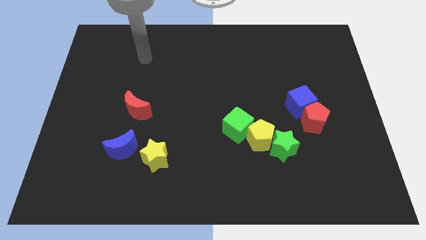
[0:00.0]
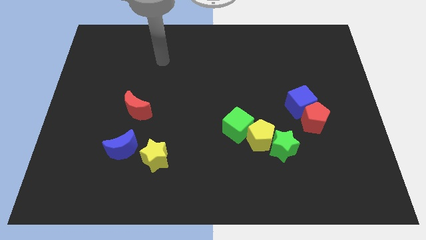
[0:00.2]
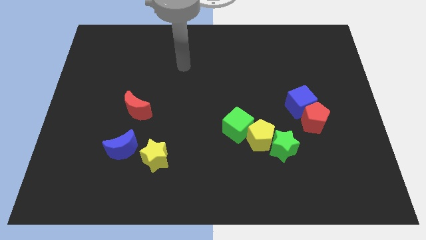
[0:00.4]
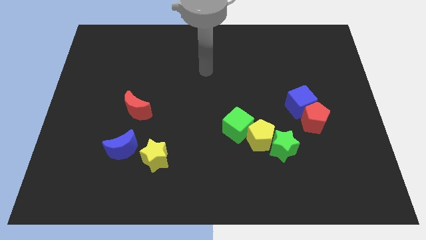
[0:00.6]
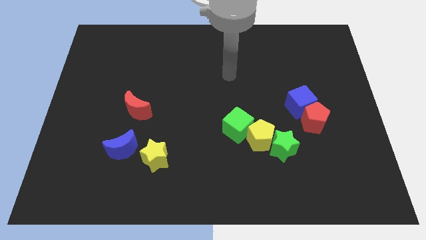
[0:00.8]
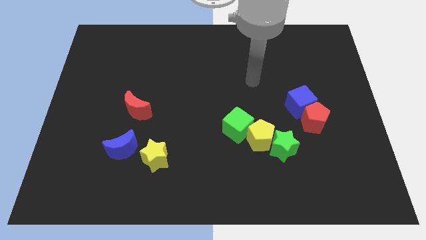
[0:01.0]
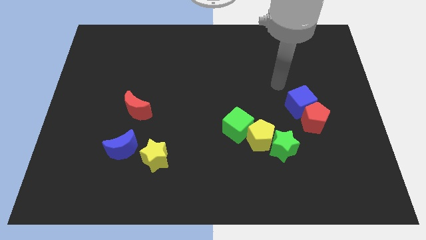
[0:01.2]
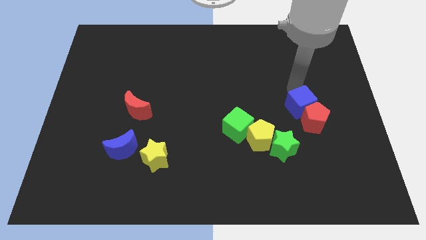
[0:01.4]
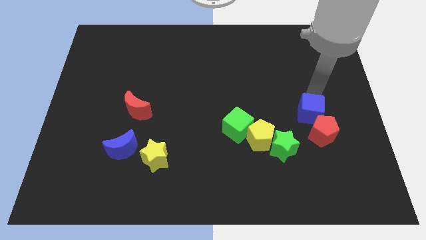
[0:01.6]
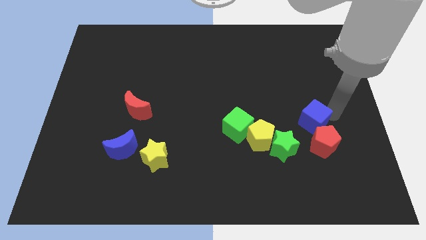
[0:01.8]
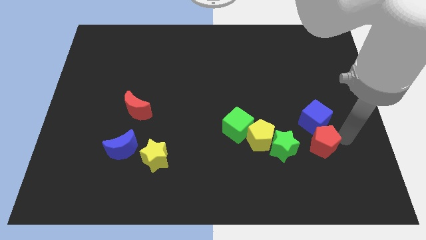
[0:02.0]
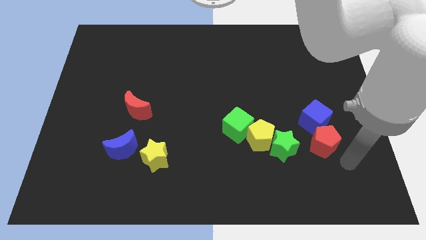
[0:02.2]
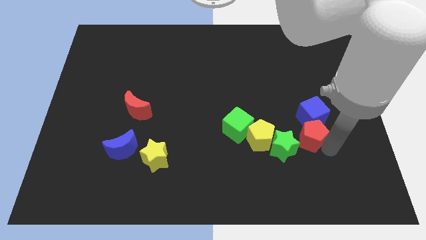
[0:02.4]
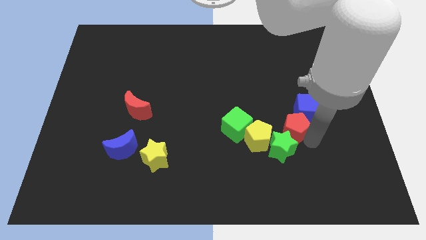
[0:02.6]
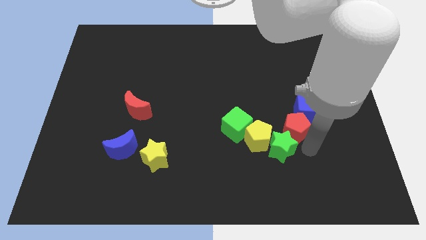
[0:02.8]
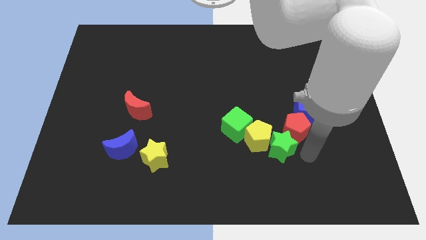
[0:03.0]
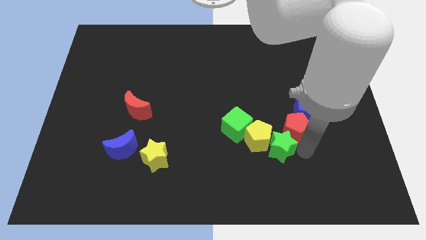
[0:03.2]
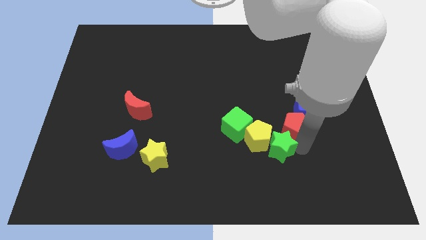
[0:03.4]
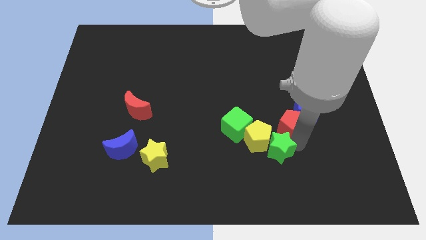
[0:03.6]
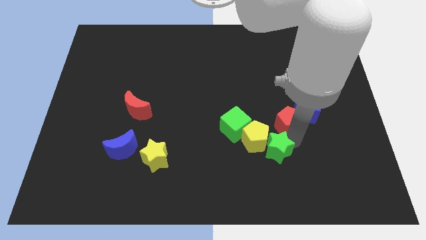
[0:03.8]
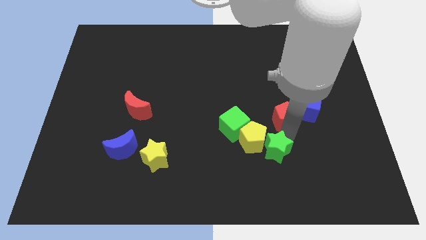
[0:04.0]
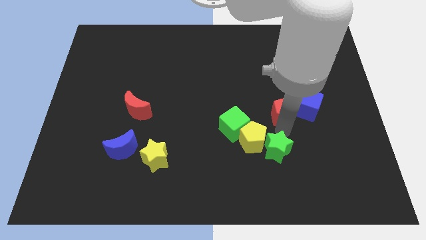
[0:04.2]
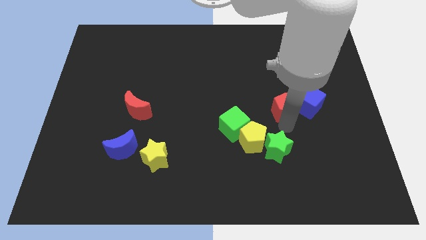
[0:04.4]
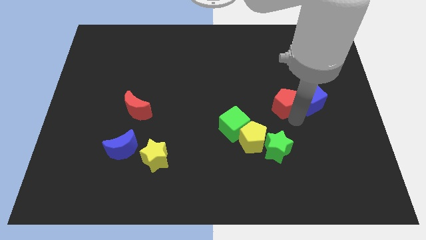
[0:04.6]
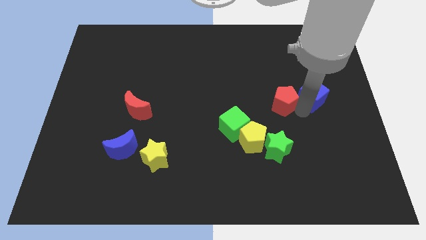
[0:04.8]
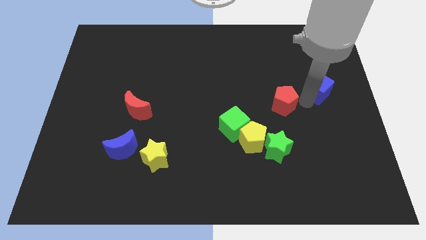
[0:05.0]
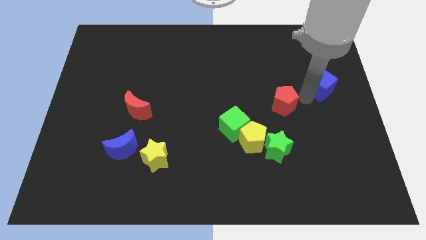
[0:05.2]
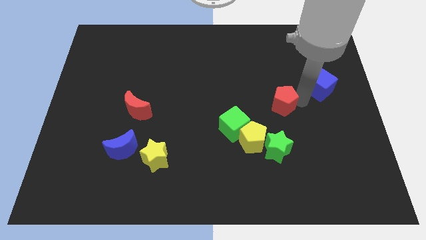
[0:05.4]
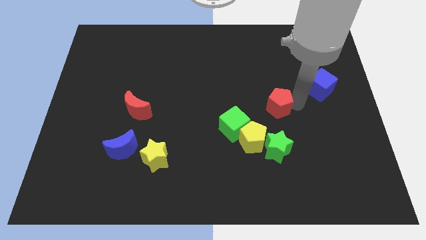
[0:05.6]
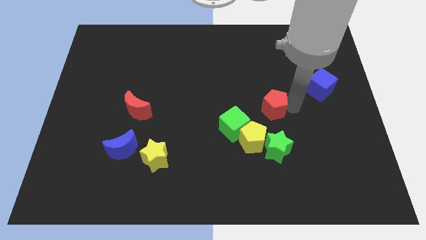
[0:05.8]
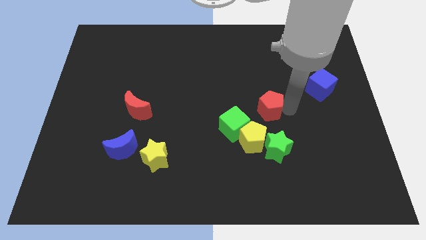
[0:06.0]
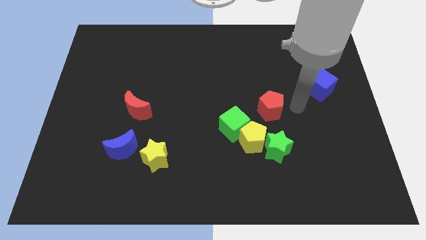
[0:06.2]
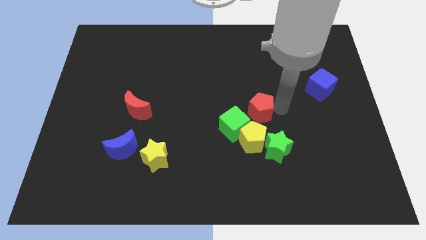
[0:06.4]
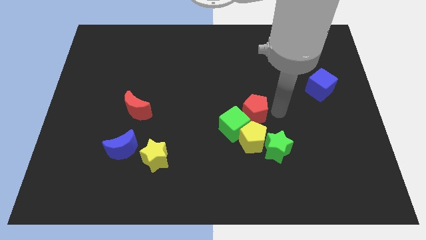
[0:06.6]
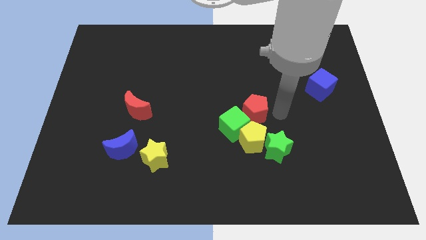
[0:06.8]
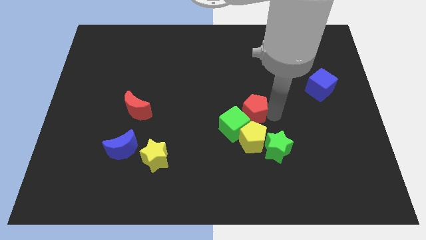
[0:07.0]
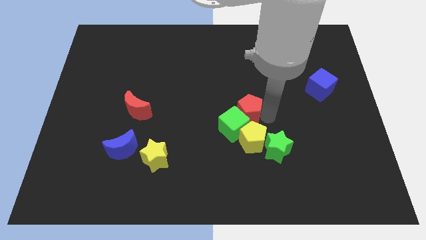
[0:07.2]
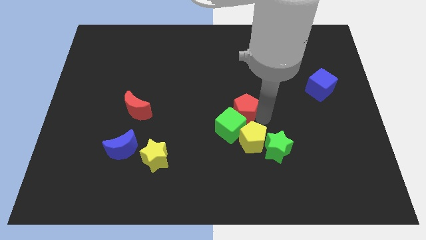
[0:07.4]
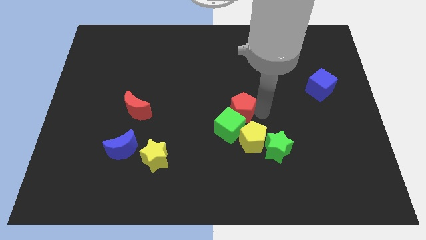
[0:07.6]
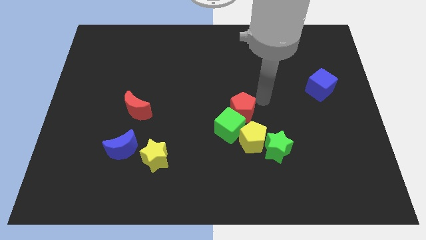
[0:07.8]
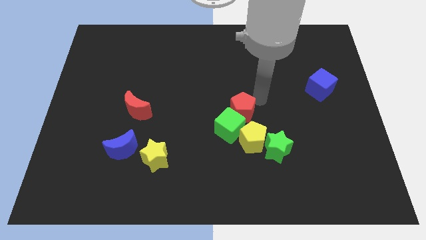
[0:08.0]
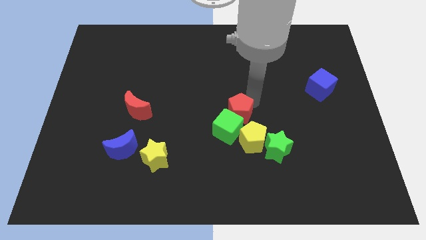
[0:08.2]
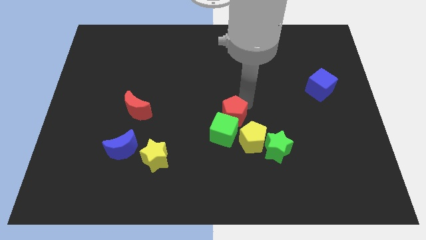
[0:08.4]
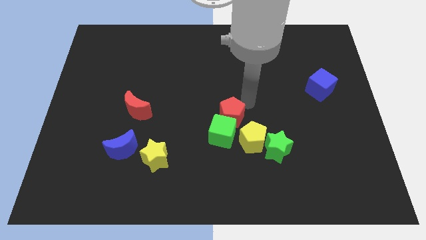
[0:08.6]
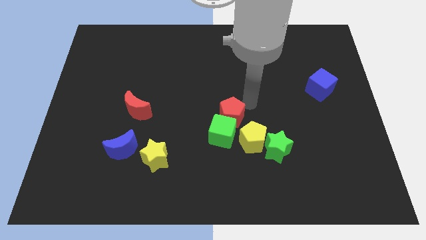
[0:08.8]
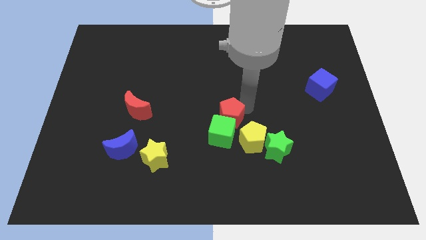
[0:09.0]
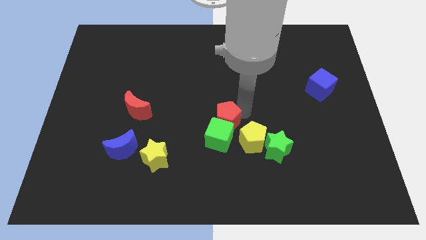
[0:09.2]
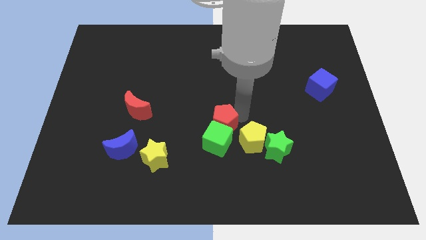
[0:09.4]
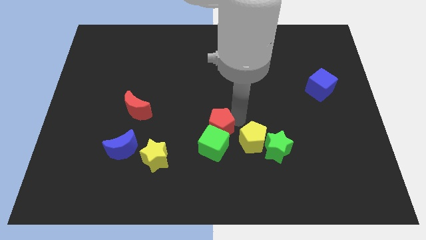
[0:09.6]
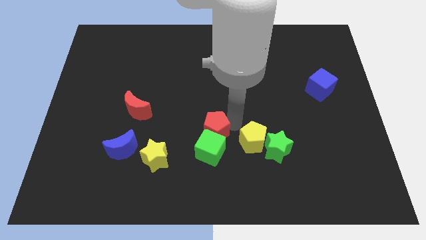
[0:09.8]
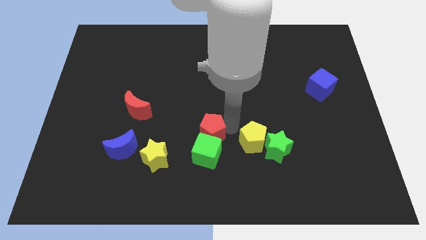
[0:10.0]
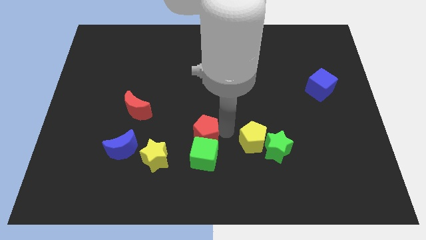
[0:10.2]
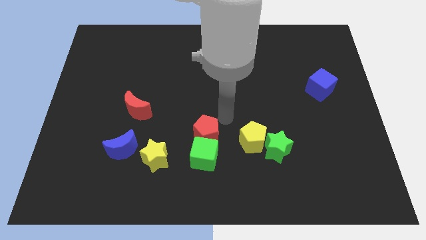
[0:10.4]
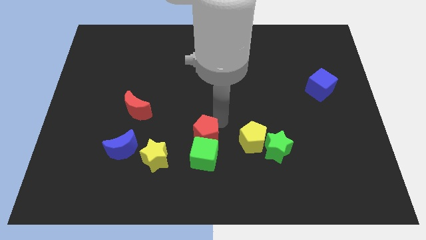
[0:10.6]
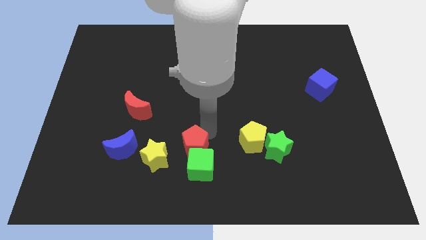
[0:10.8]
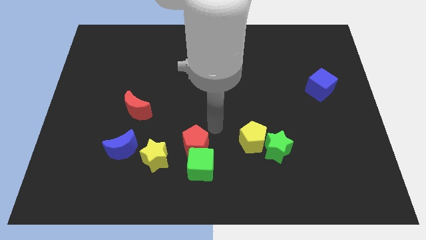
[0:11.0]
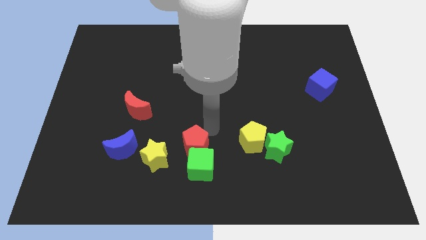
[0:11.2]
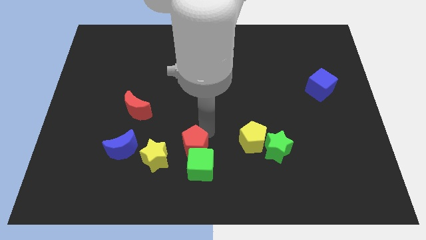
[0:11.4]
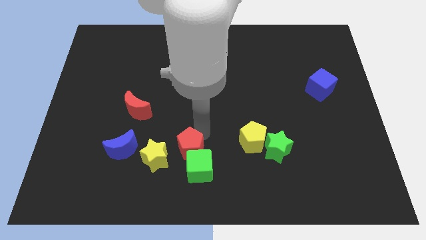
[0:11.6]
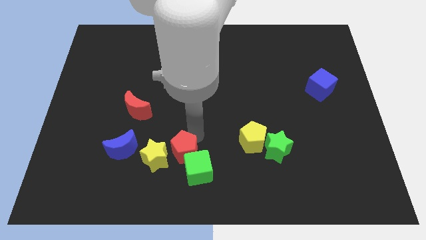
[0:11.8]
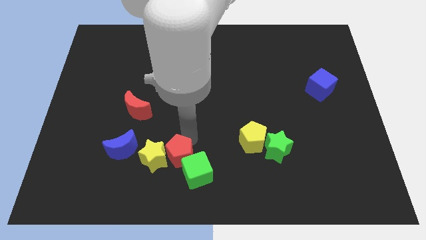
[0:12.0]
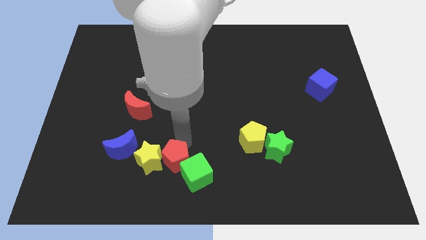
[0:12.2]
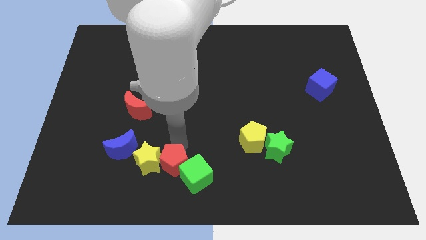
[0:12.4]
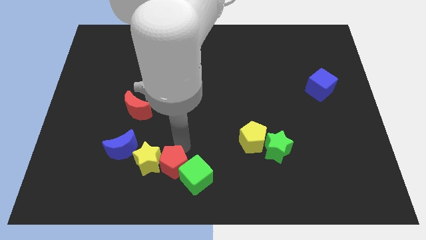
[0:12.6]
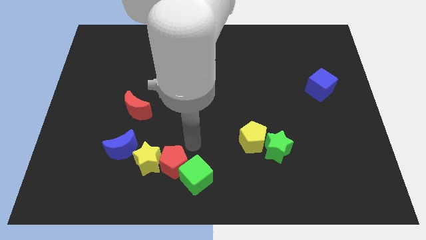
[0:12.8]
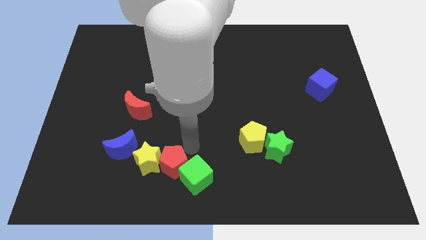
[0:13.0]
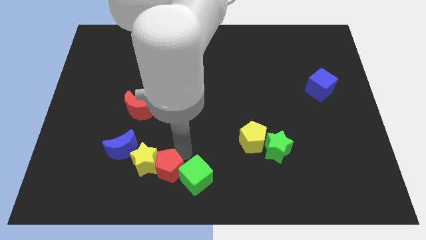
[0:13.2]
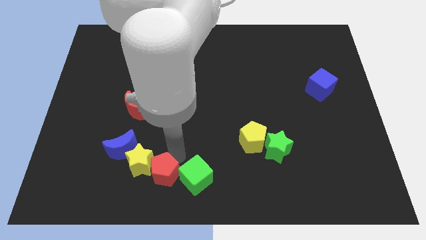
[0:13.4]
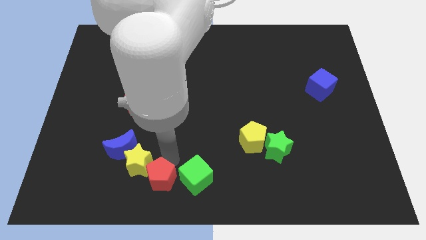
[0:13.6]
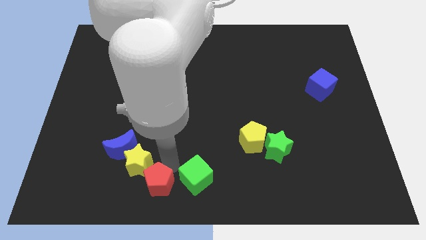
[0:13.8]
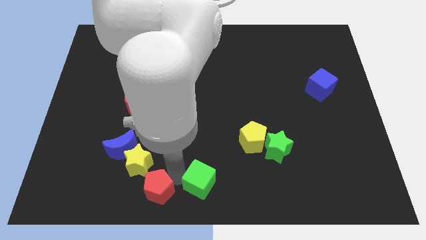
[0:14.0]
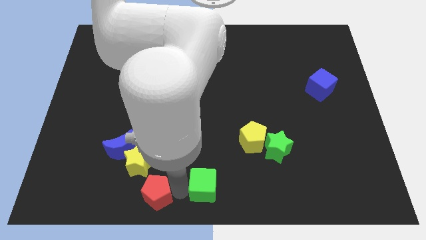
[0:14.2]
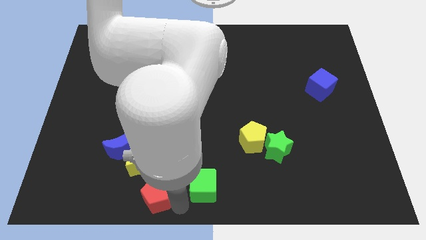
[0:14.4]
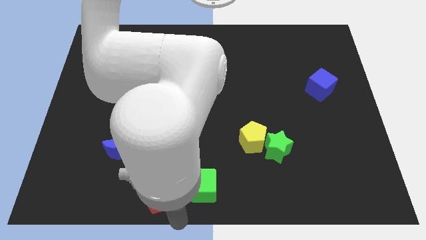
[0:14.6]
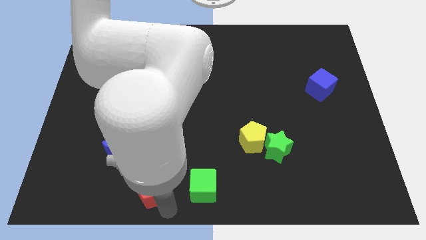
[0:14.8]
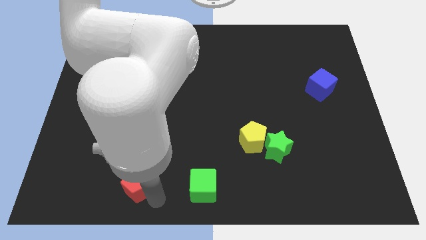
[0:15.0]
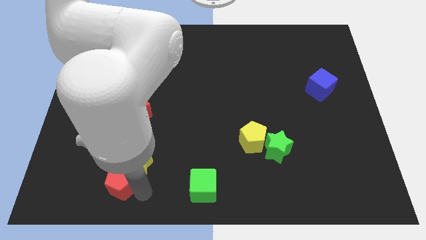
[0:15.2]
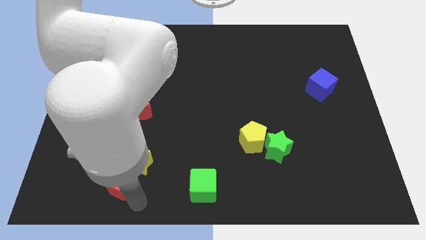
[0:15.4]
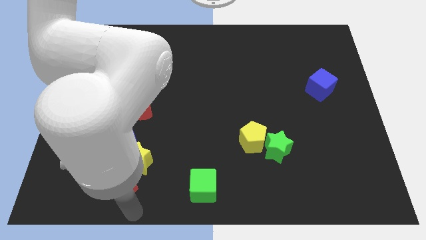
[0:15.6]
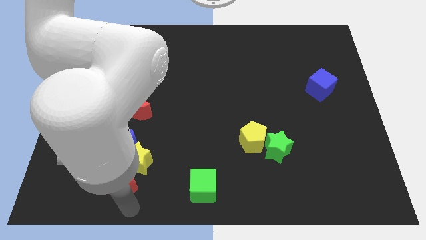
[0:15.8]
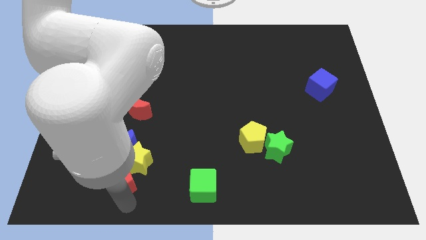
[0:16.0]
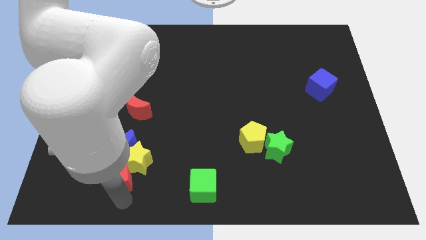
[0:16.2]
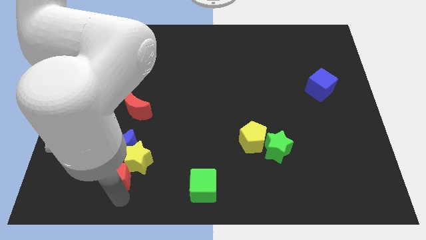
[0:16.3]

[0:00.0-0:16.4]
move the red pentagon diagonally down and to the left of the blue moon
